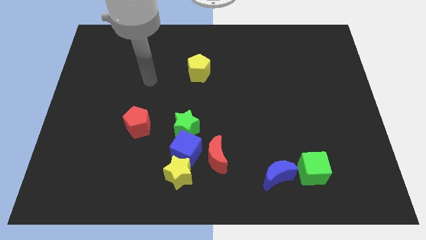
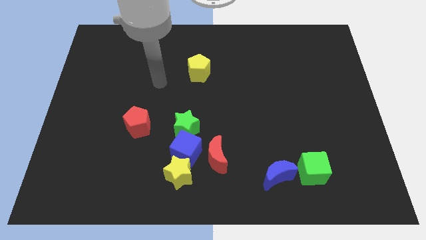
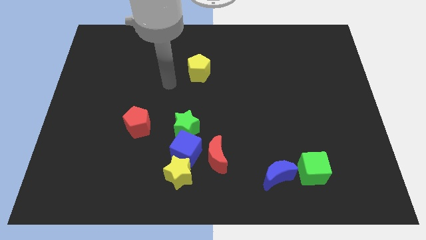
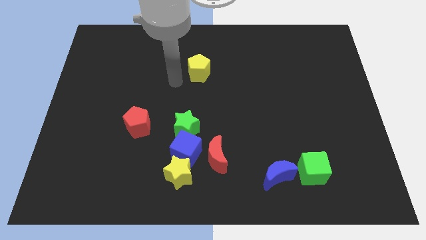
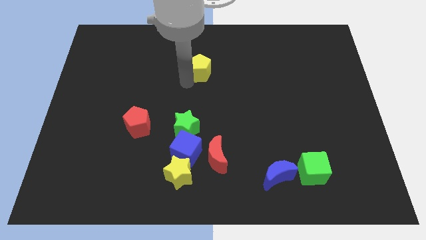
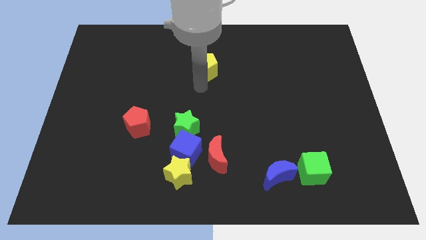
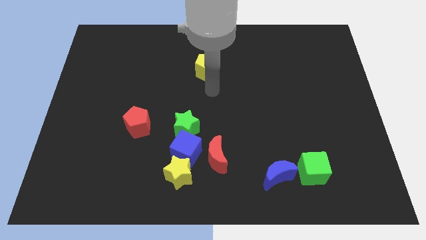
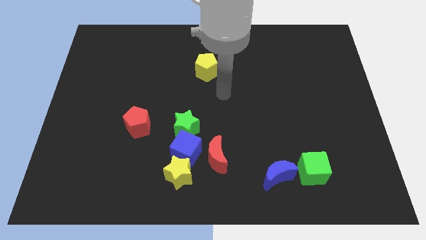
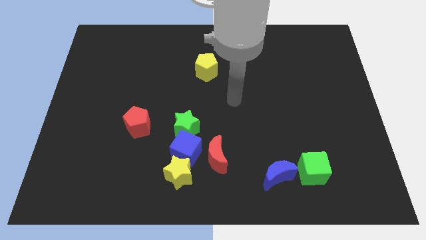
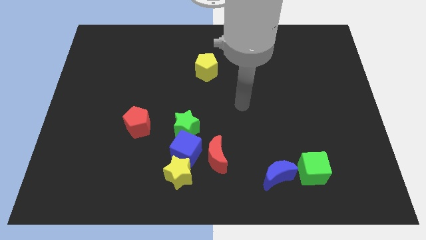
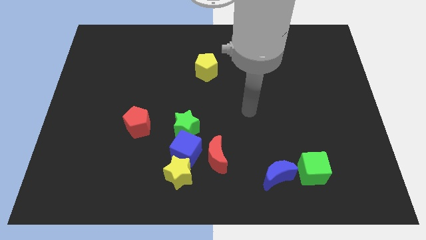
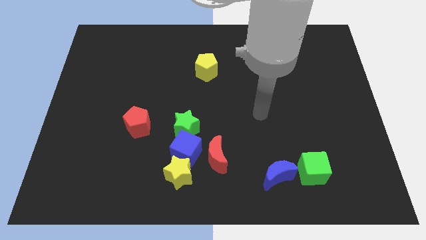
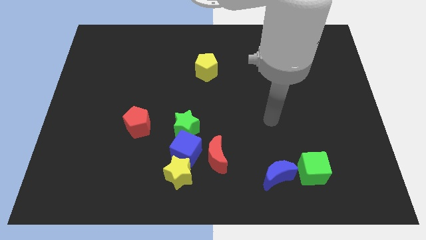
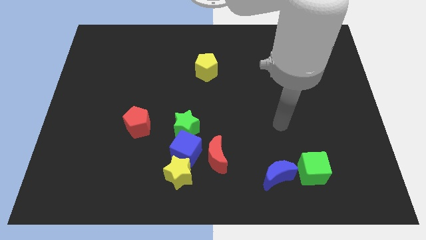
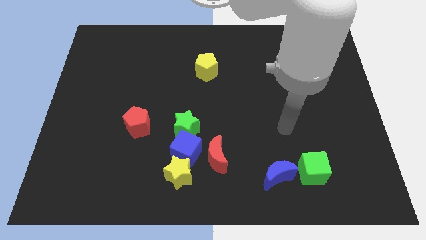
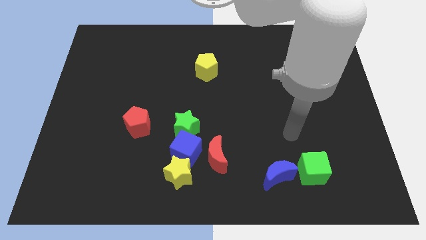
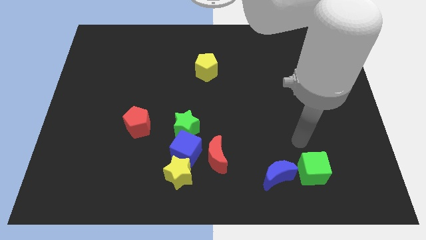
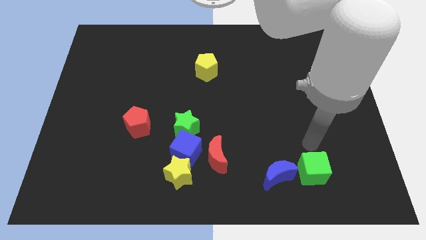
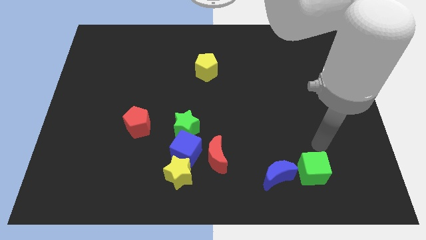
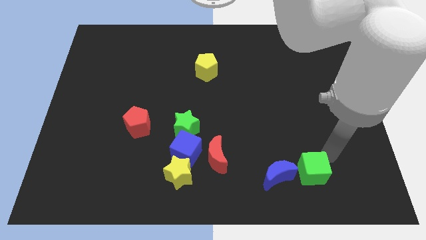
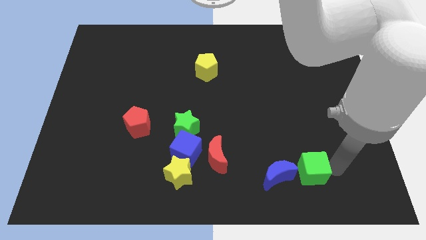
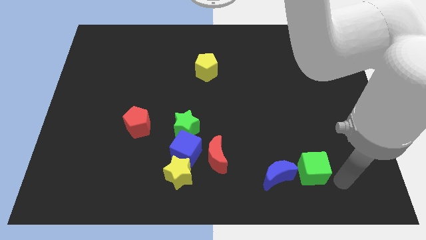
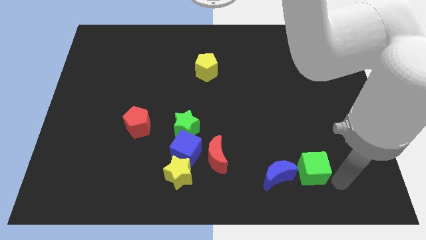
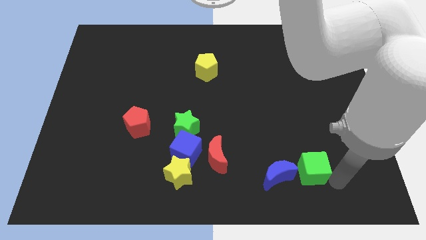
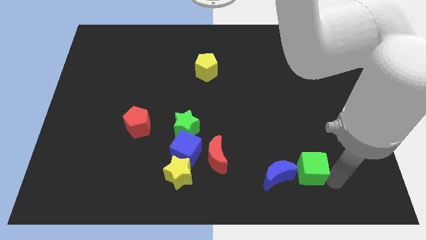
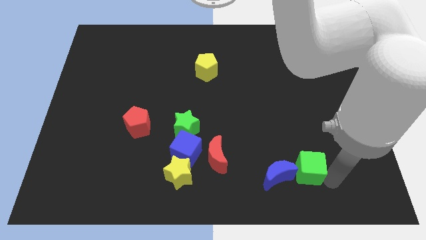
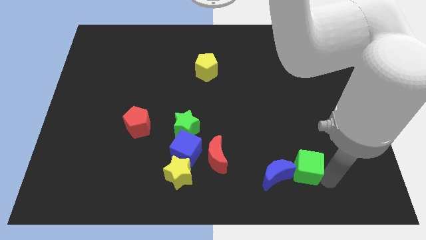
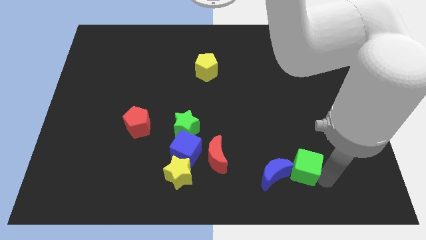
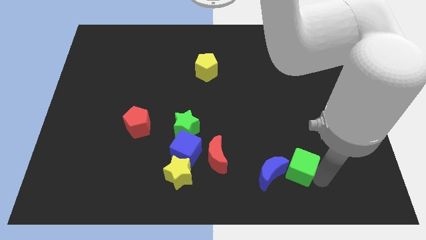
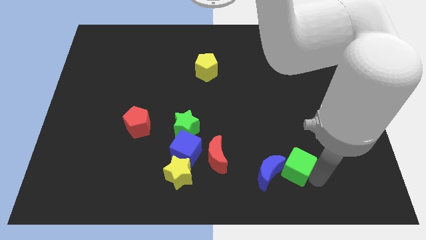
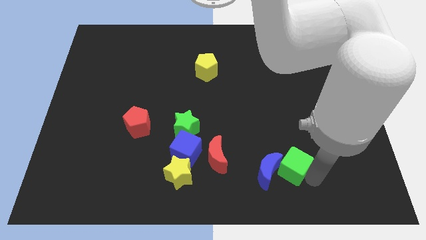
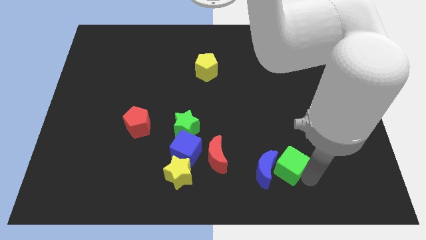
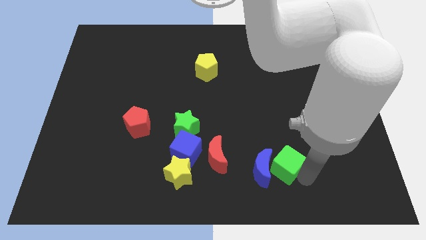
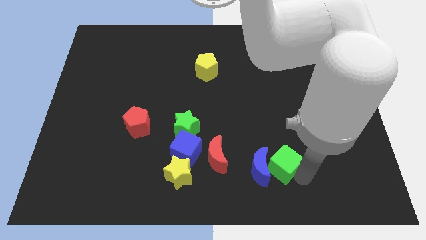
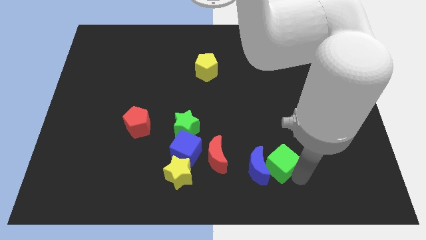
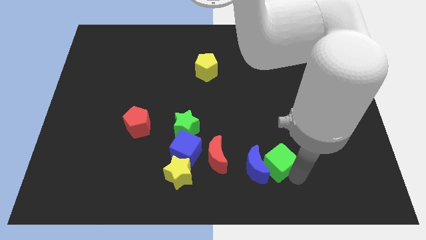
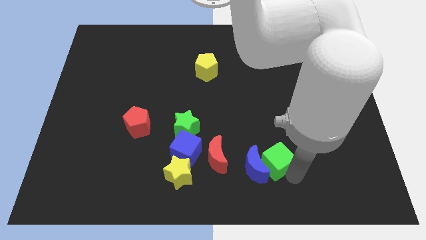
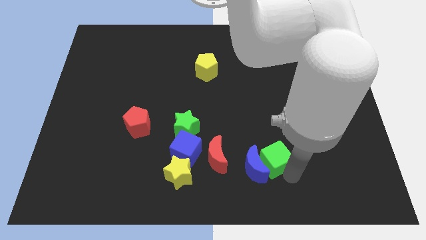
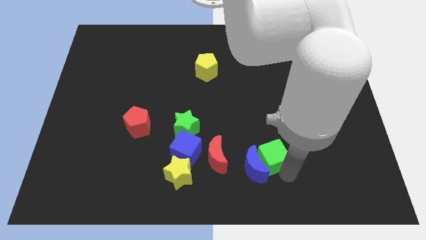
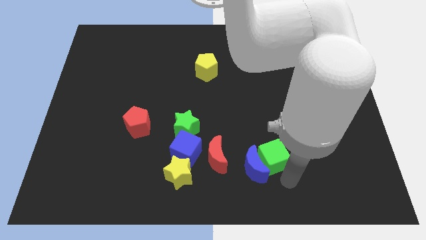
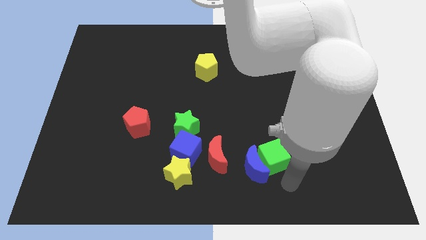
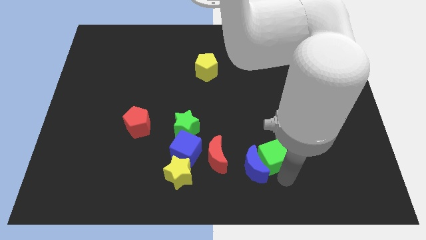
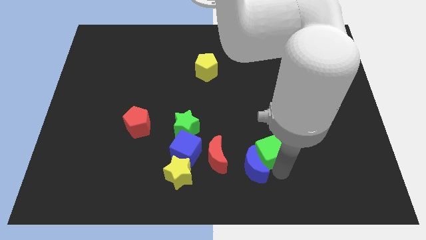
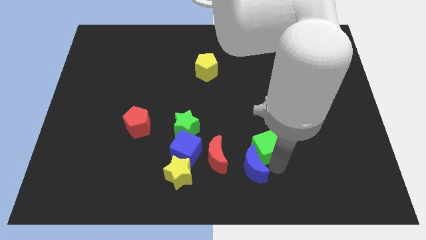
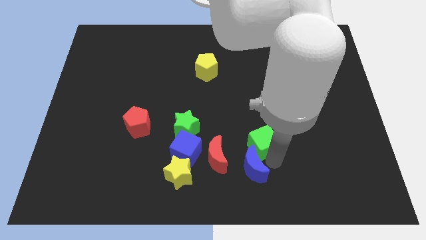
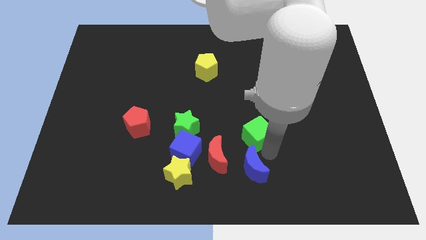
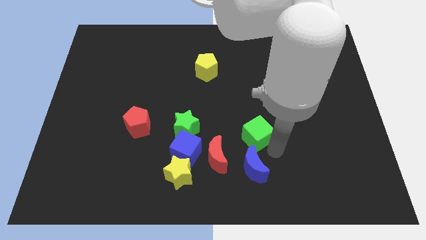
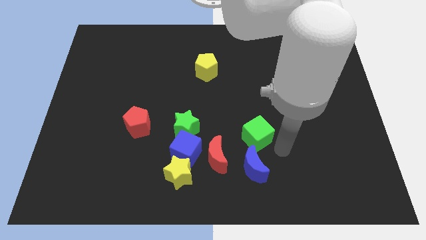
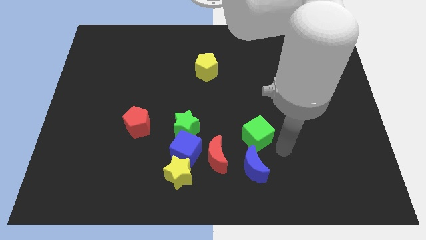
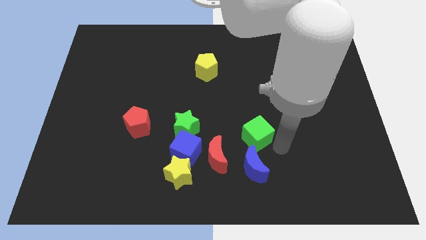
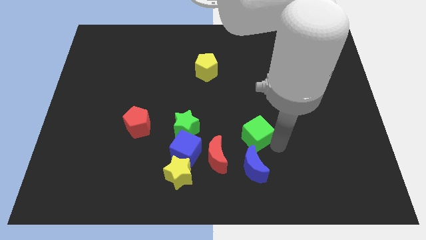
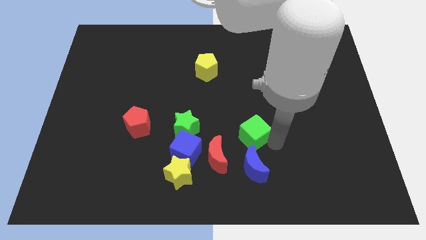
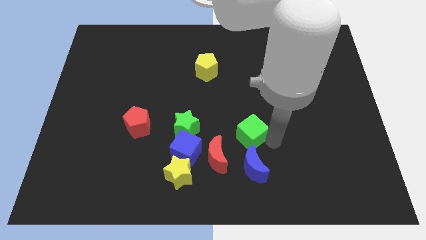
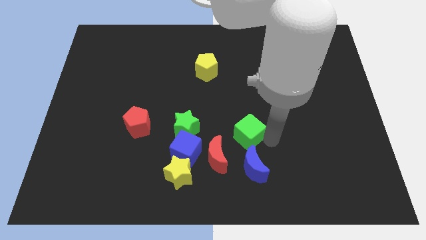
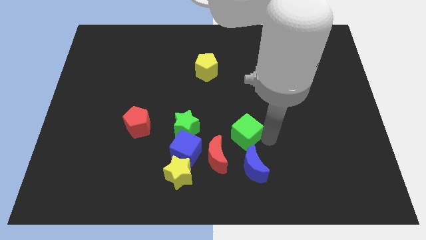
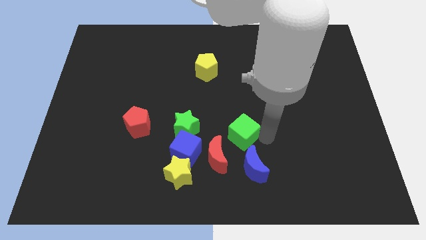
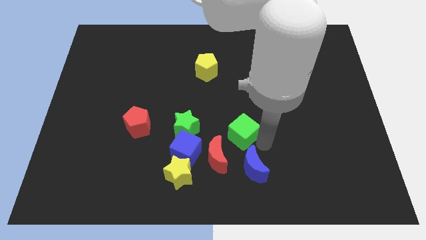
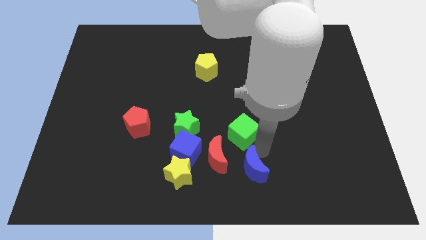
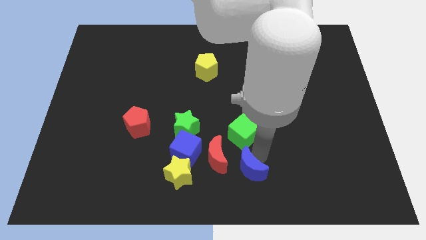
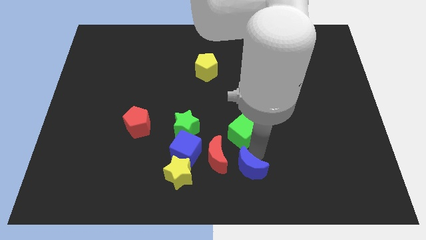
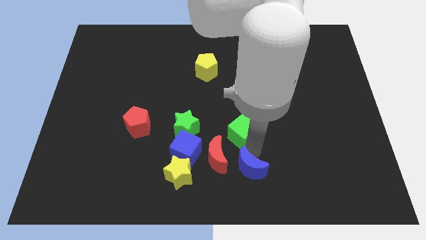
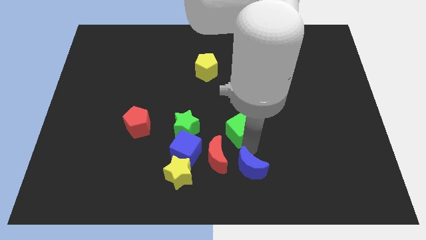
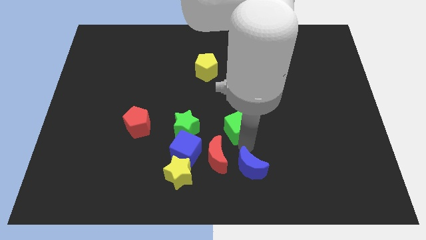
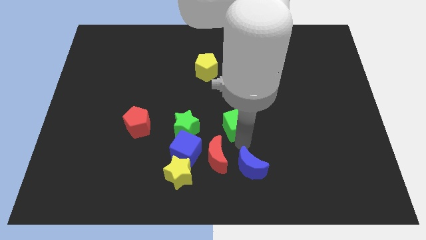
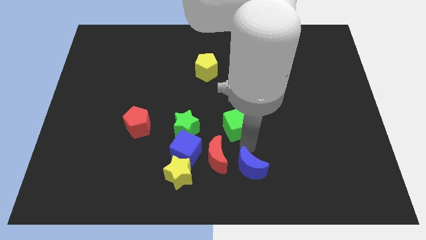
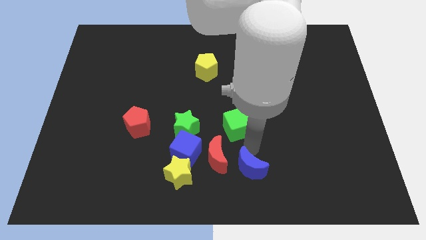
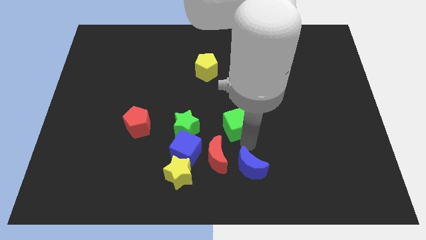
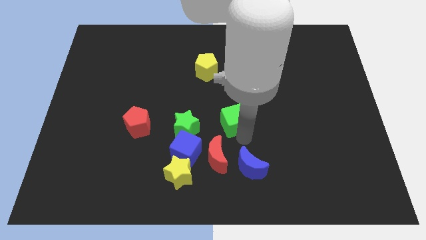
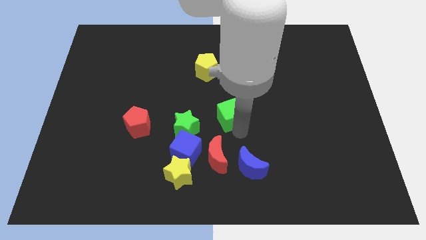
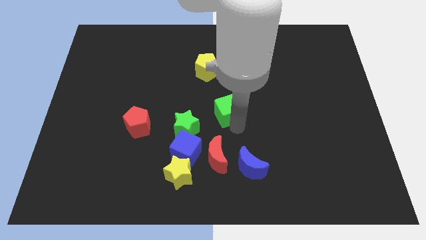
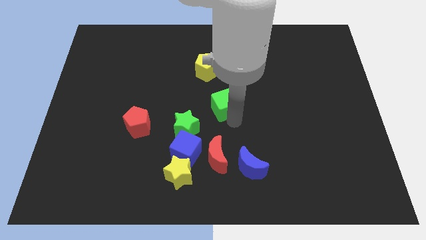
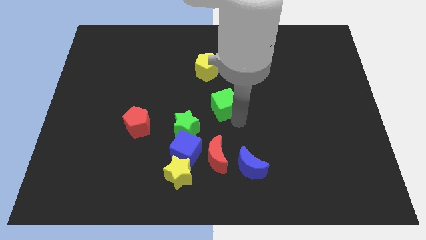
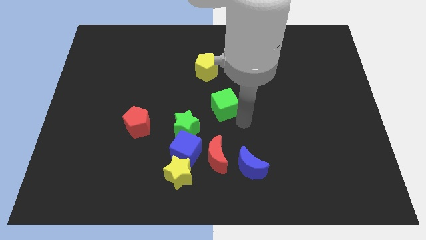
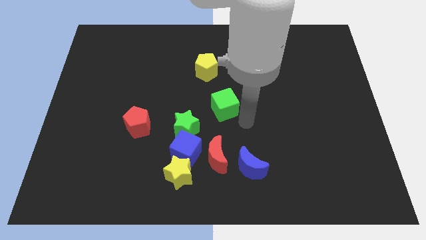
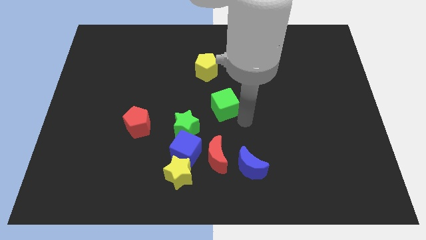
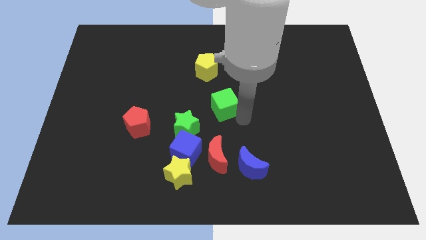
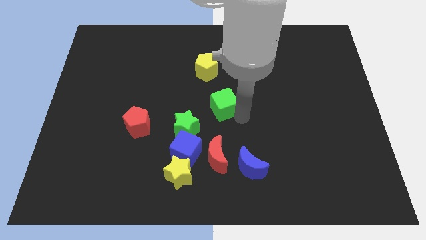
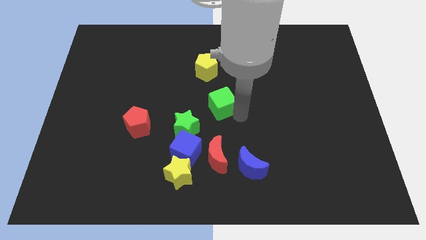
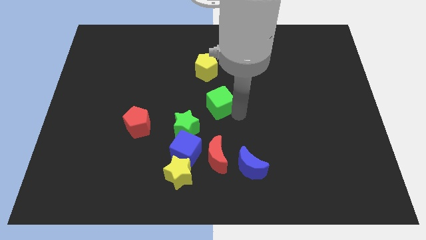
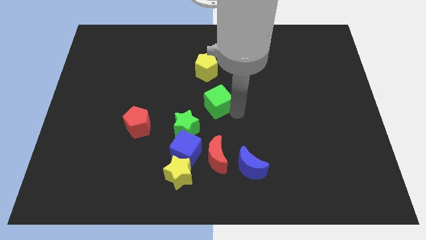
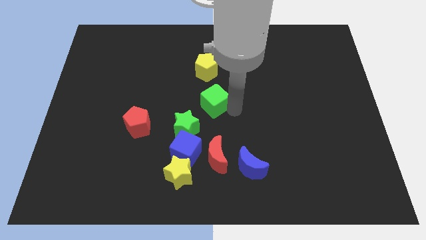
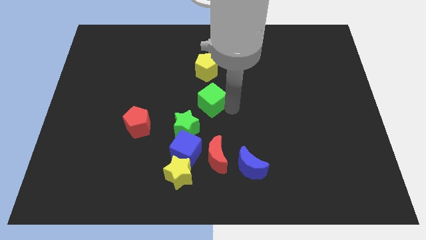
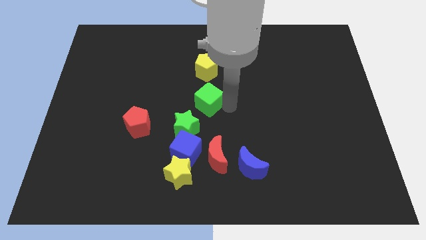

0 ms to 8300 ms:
move the green cube to the top side of the green star
